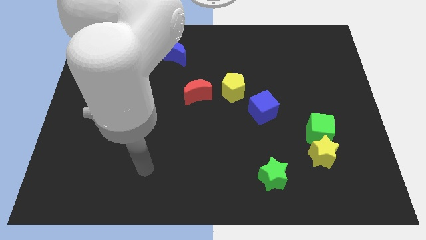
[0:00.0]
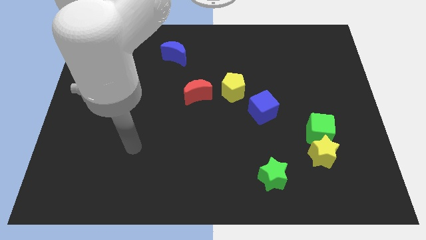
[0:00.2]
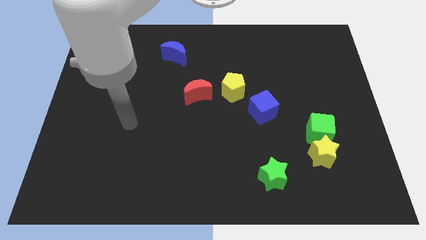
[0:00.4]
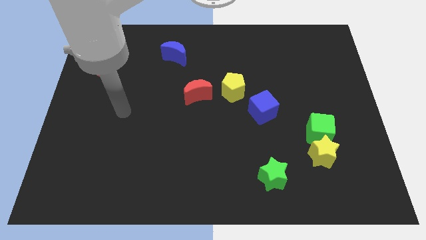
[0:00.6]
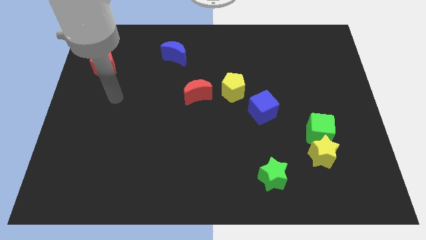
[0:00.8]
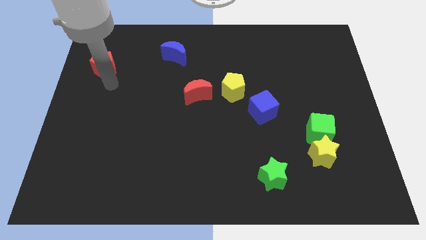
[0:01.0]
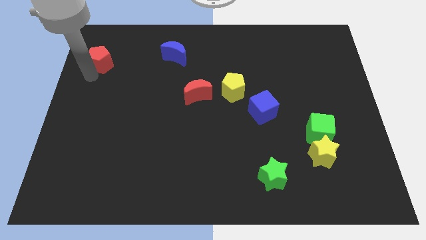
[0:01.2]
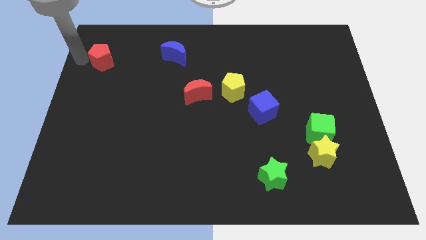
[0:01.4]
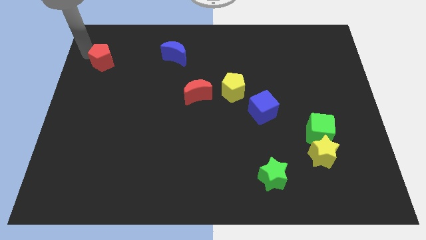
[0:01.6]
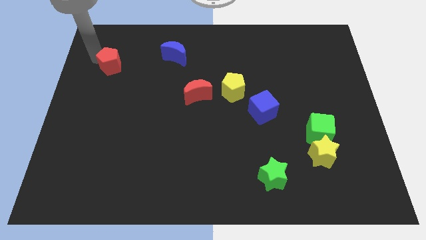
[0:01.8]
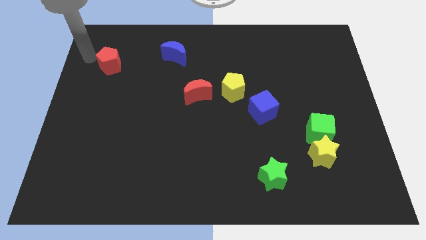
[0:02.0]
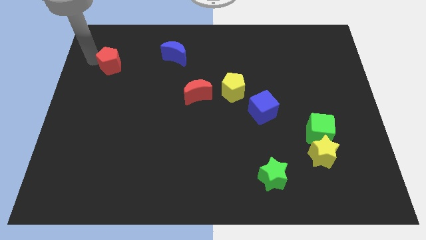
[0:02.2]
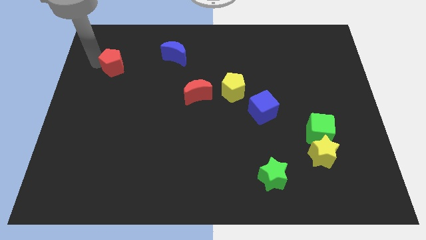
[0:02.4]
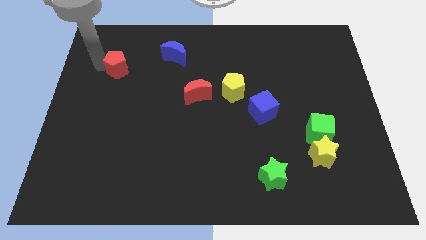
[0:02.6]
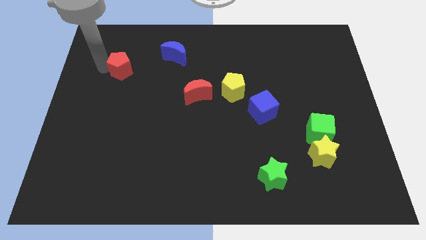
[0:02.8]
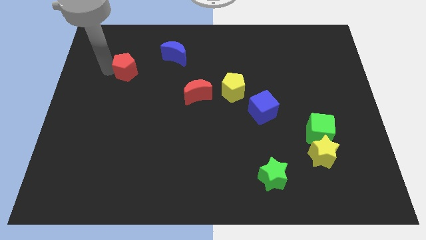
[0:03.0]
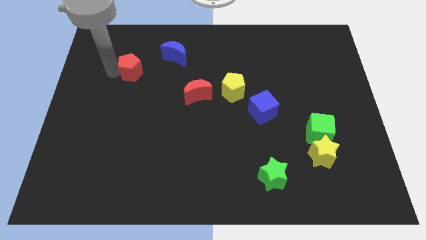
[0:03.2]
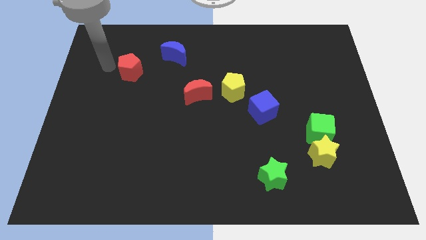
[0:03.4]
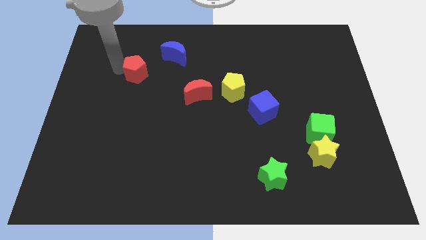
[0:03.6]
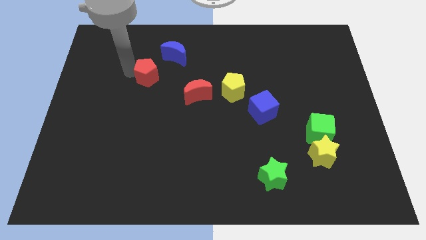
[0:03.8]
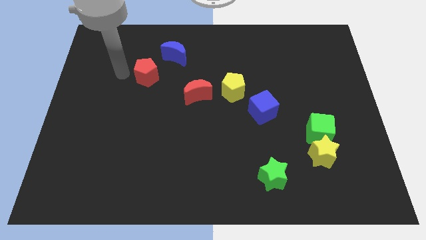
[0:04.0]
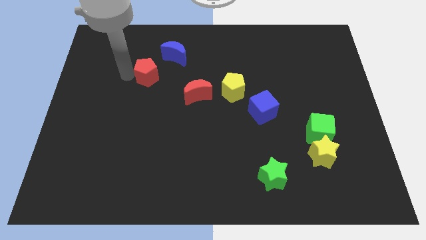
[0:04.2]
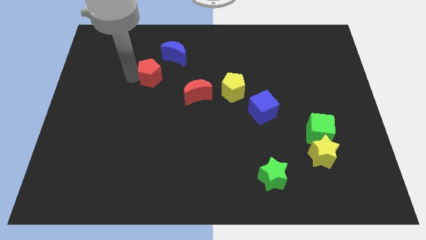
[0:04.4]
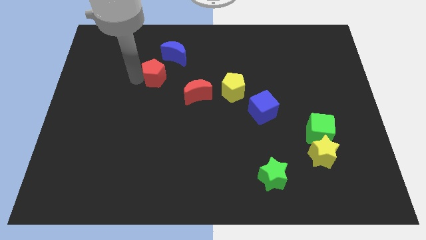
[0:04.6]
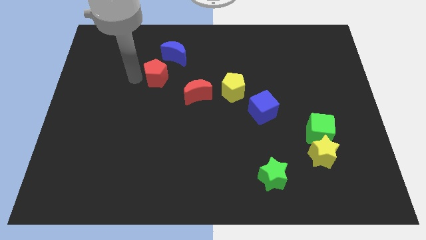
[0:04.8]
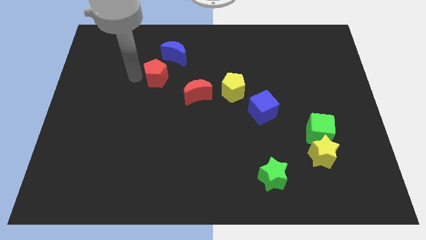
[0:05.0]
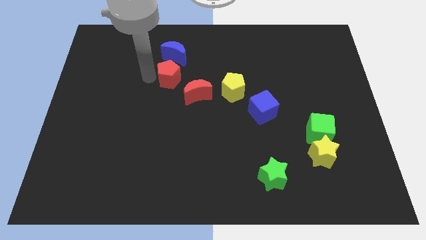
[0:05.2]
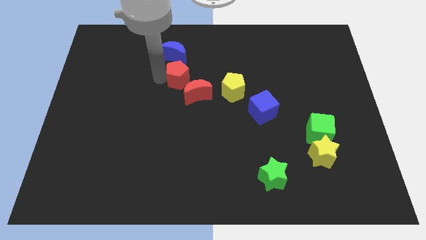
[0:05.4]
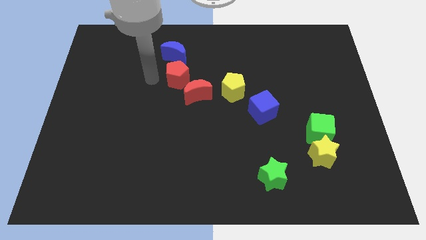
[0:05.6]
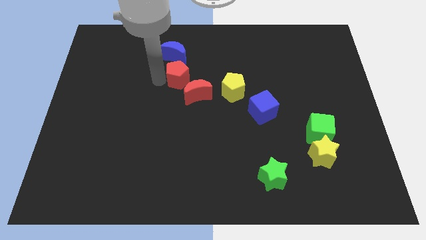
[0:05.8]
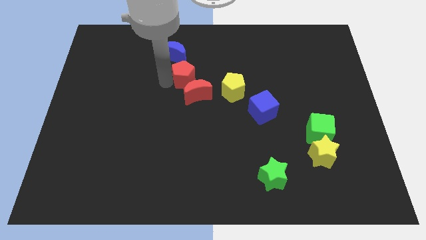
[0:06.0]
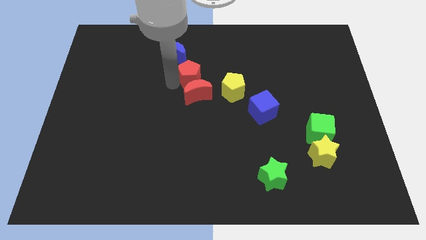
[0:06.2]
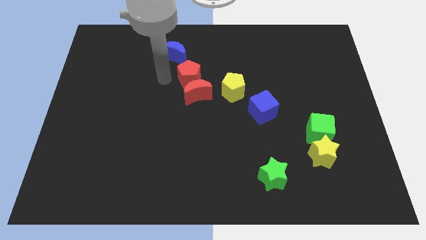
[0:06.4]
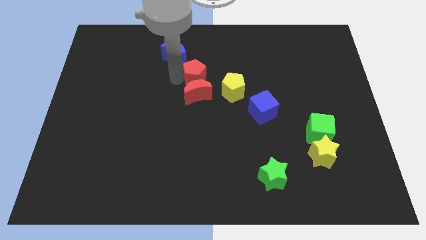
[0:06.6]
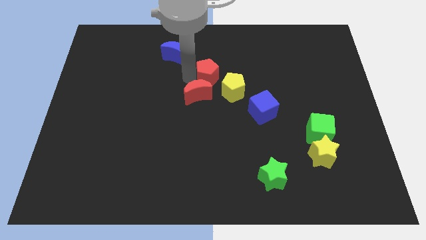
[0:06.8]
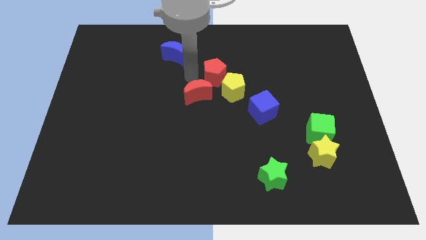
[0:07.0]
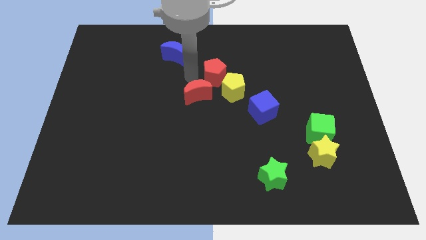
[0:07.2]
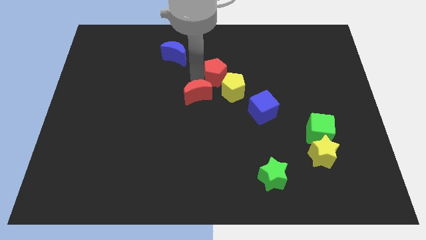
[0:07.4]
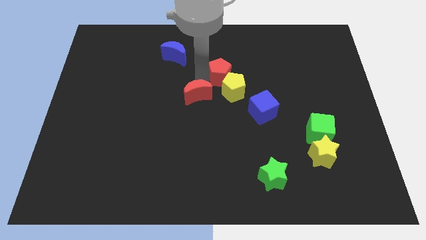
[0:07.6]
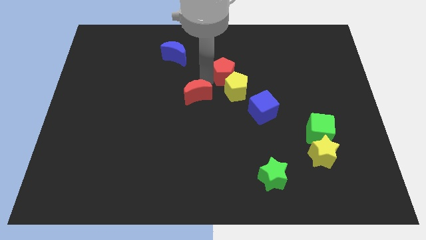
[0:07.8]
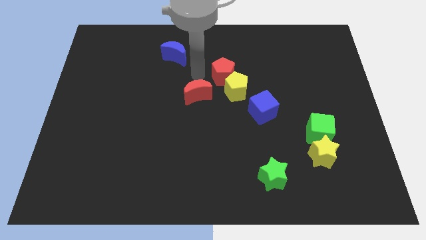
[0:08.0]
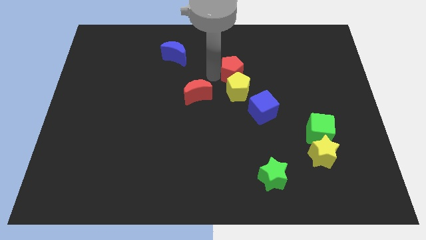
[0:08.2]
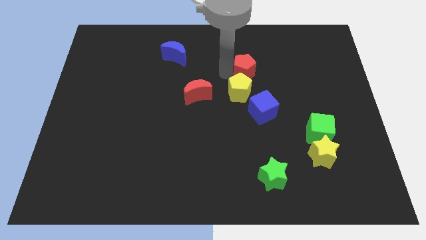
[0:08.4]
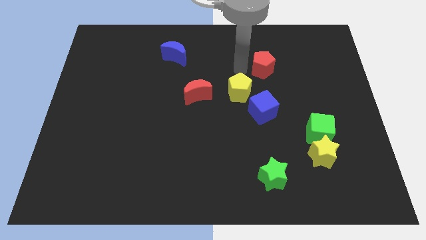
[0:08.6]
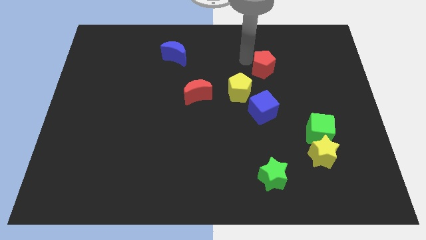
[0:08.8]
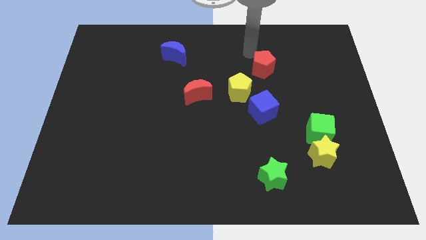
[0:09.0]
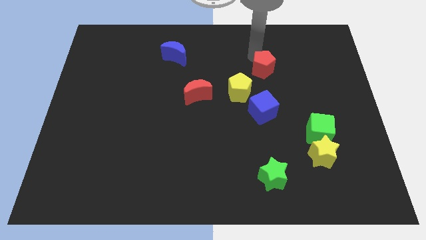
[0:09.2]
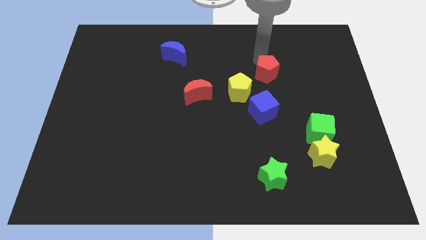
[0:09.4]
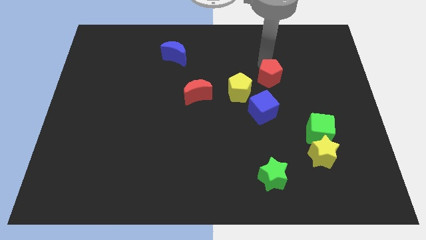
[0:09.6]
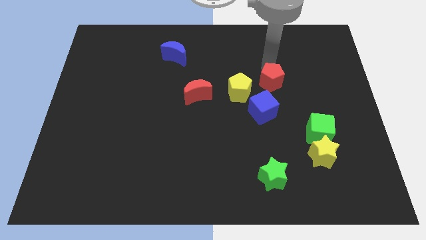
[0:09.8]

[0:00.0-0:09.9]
put the red pentagon to the top right side of the blue cube

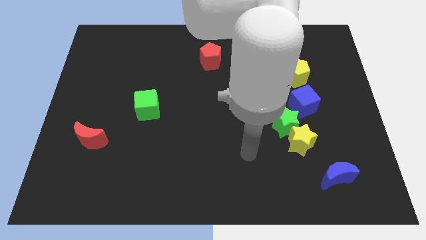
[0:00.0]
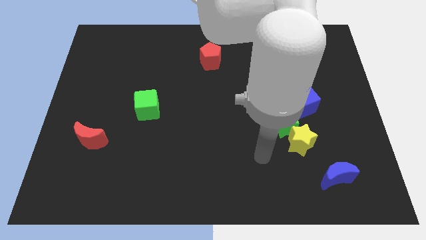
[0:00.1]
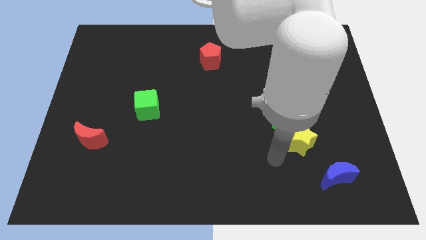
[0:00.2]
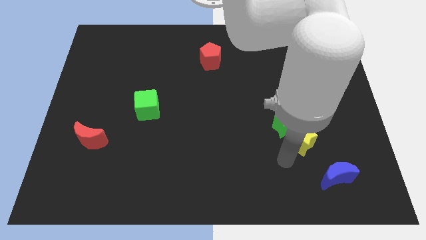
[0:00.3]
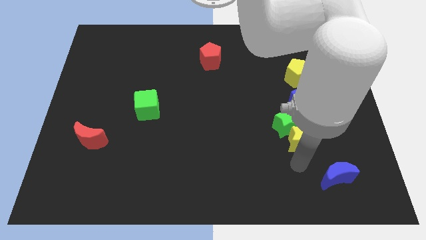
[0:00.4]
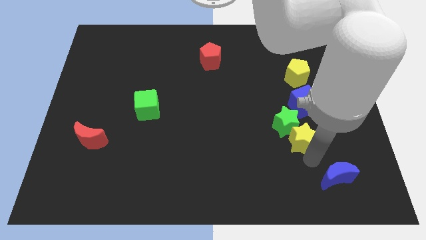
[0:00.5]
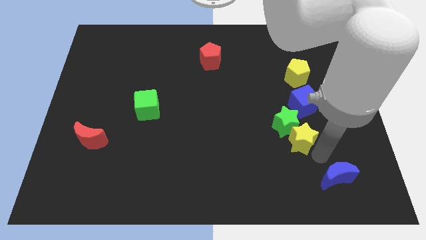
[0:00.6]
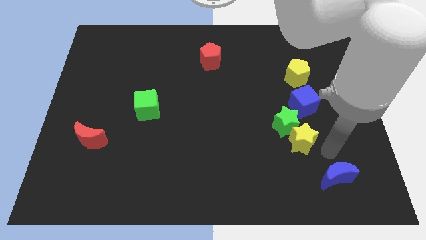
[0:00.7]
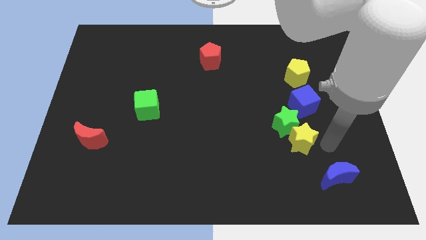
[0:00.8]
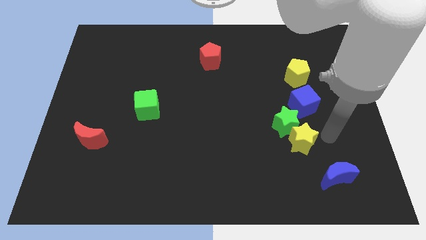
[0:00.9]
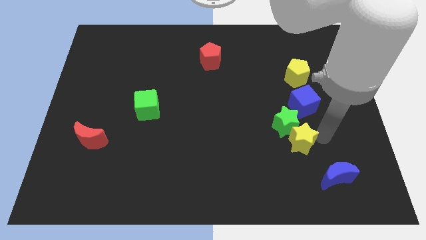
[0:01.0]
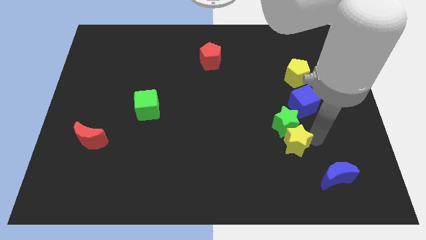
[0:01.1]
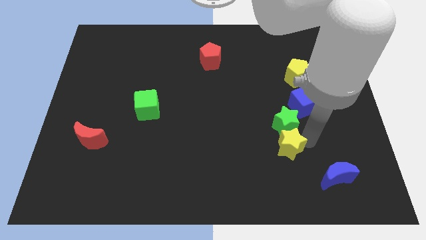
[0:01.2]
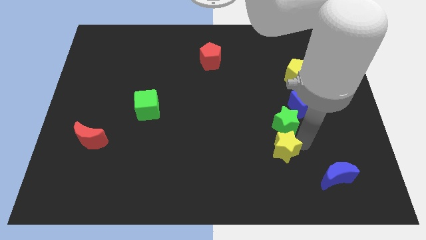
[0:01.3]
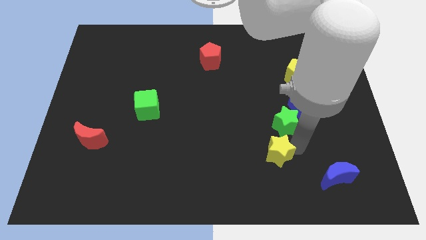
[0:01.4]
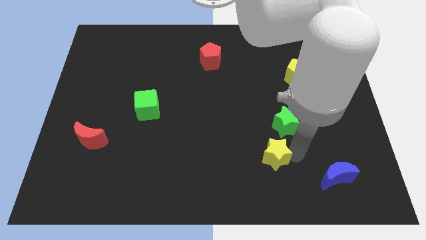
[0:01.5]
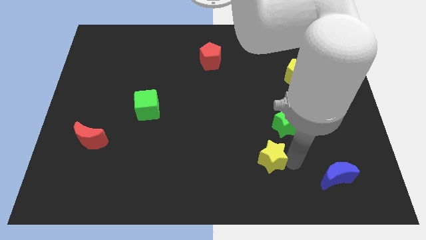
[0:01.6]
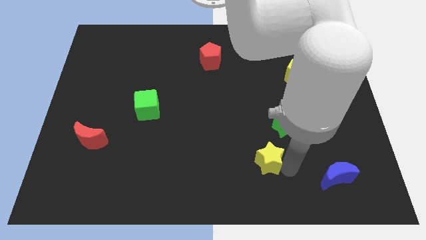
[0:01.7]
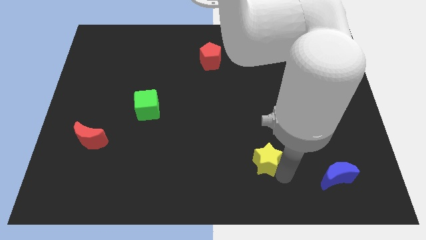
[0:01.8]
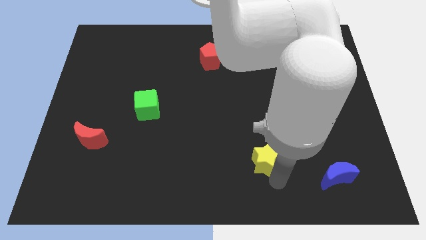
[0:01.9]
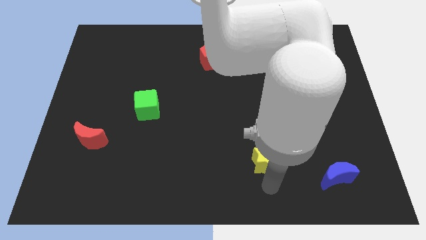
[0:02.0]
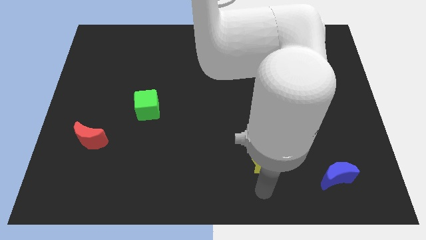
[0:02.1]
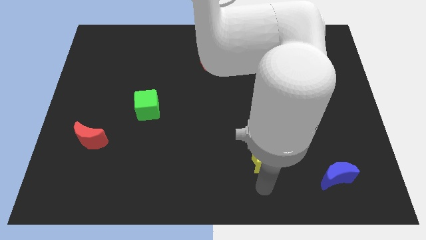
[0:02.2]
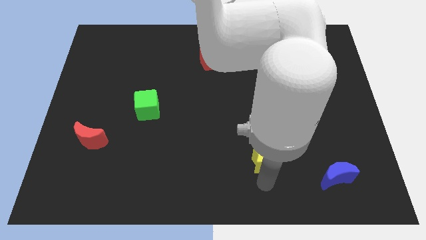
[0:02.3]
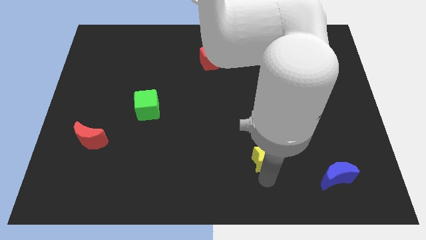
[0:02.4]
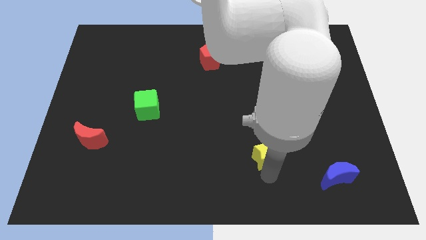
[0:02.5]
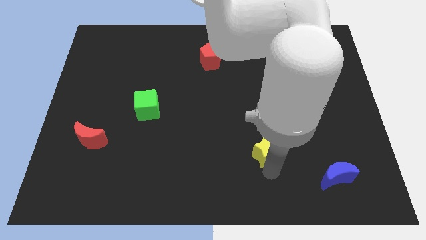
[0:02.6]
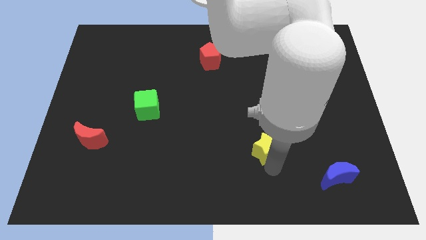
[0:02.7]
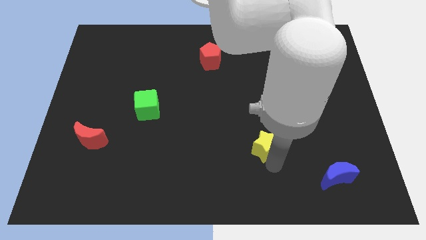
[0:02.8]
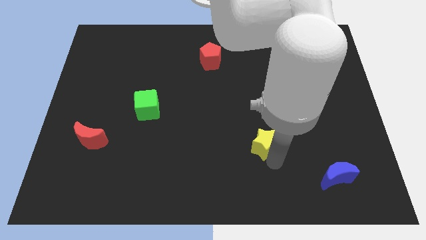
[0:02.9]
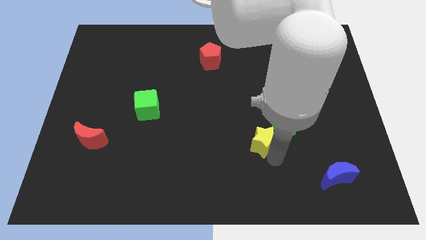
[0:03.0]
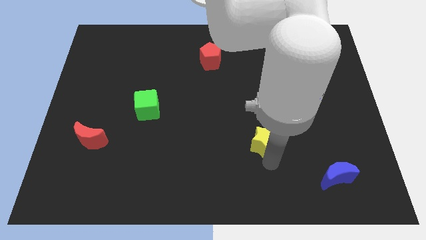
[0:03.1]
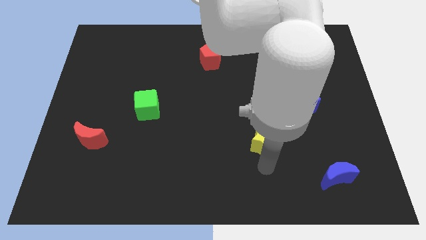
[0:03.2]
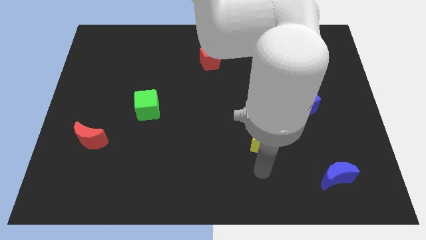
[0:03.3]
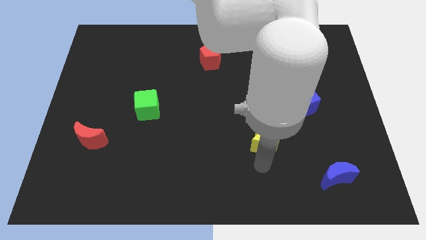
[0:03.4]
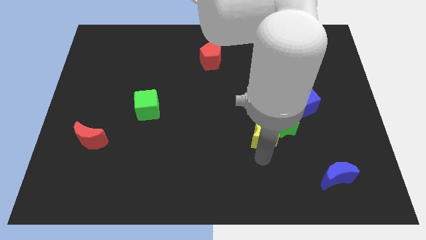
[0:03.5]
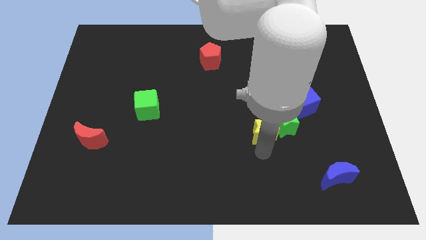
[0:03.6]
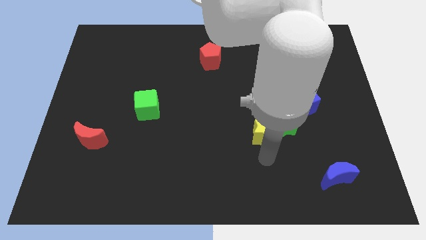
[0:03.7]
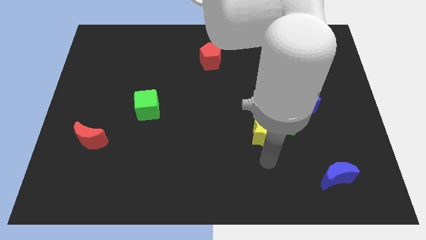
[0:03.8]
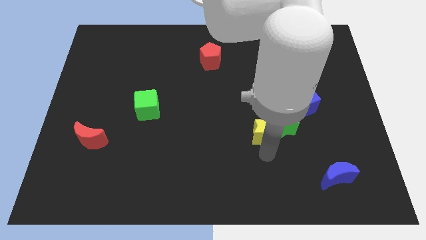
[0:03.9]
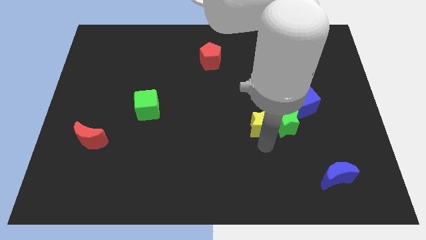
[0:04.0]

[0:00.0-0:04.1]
push the yellow star to the top left side of the green star
